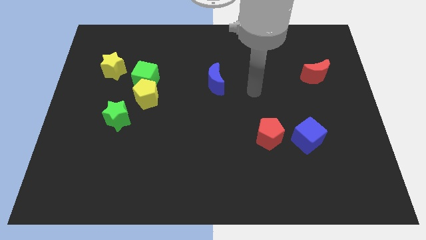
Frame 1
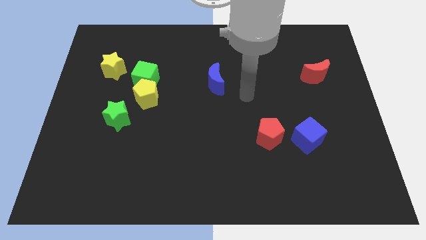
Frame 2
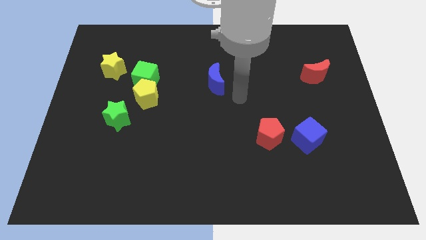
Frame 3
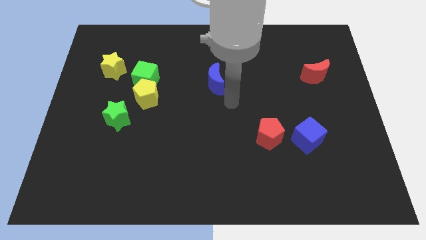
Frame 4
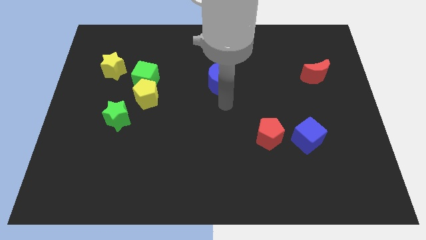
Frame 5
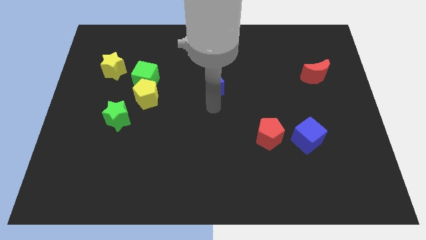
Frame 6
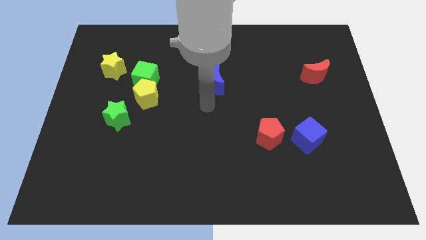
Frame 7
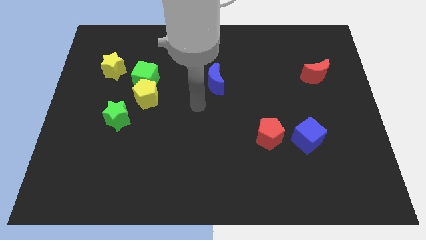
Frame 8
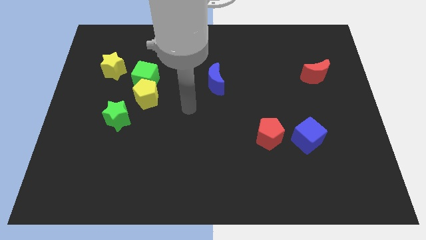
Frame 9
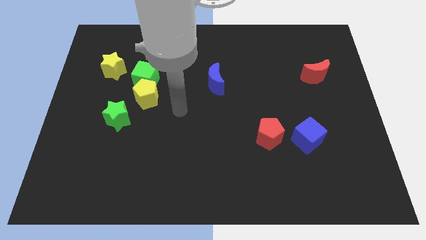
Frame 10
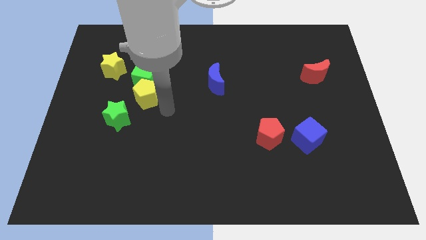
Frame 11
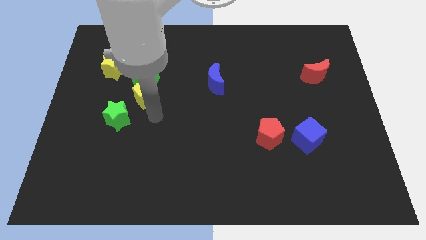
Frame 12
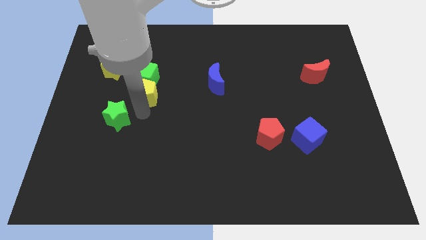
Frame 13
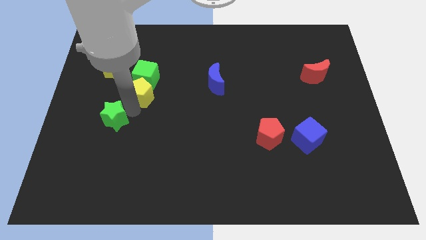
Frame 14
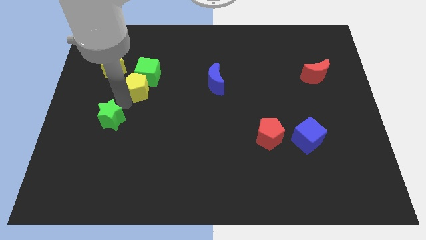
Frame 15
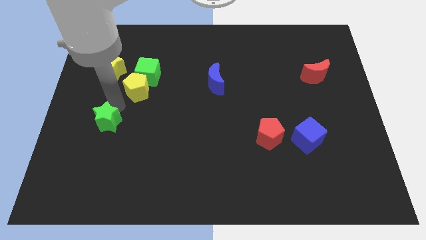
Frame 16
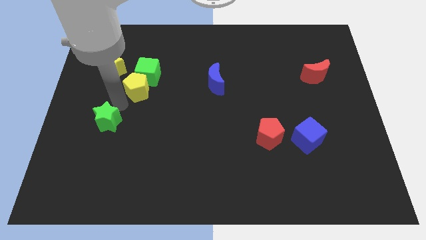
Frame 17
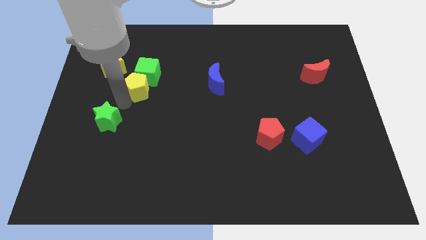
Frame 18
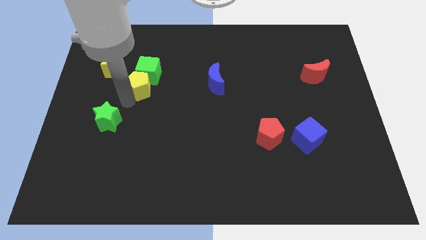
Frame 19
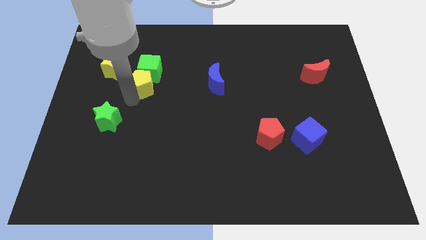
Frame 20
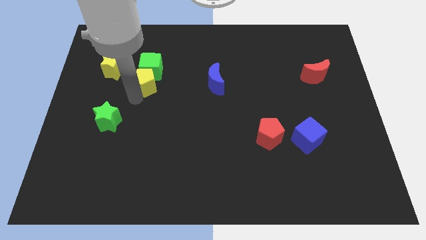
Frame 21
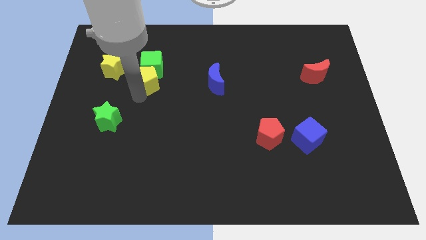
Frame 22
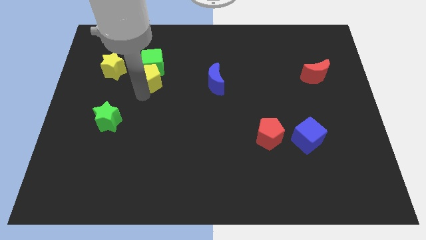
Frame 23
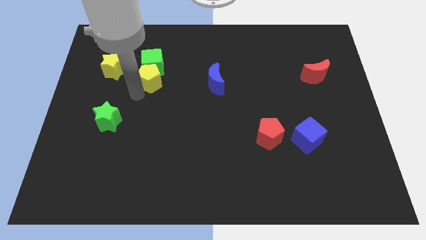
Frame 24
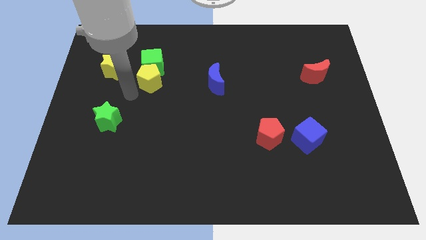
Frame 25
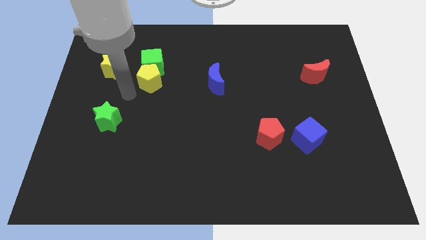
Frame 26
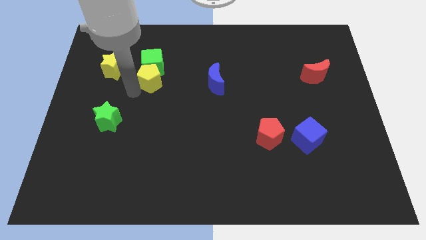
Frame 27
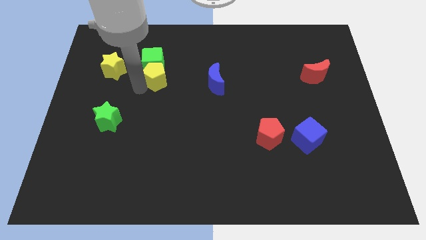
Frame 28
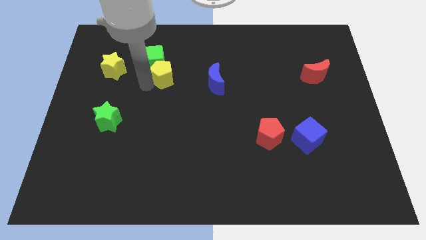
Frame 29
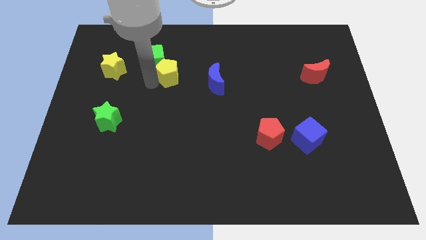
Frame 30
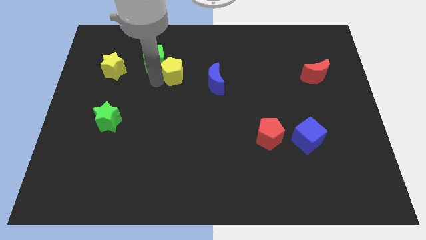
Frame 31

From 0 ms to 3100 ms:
separate the yellow pentagon from the green cube and green star

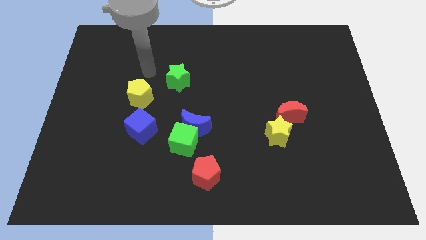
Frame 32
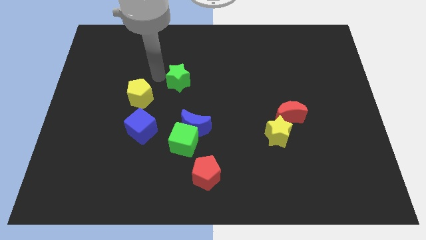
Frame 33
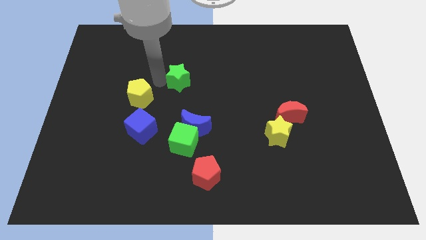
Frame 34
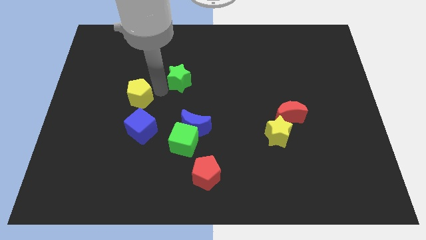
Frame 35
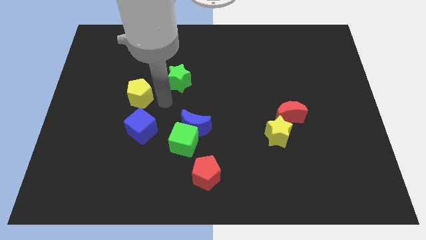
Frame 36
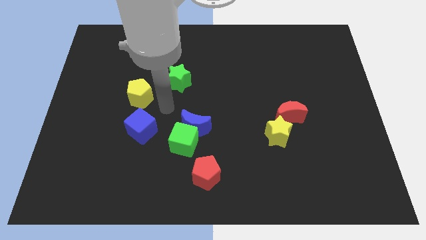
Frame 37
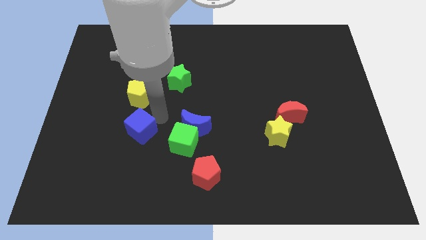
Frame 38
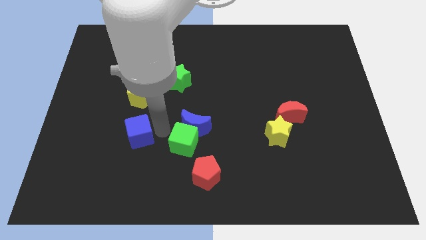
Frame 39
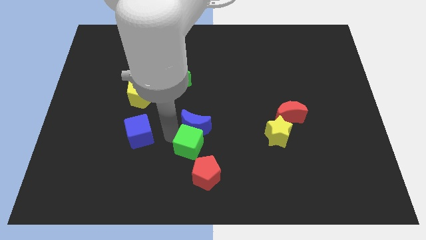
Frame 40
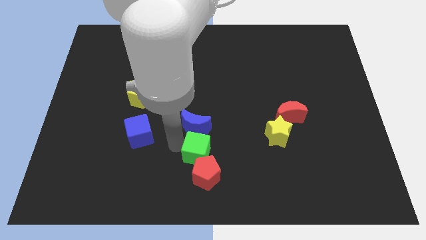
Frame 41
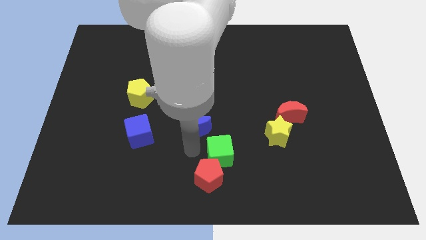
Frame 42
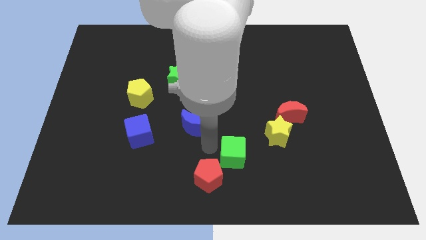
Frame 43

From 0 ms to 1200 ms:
move the blue moon away from the green cube

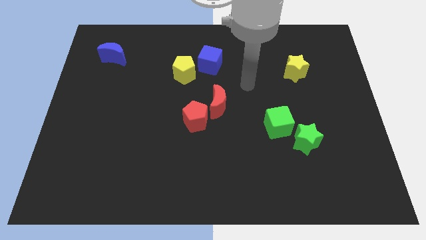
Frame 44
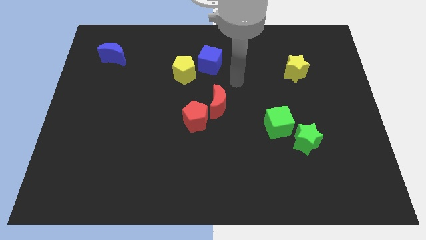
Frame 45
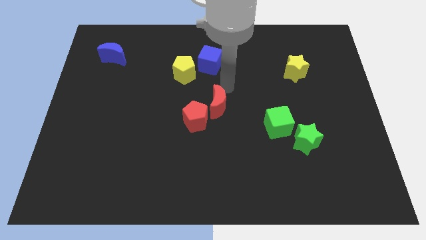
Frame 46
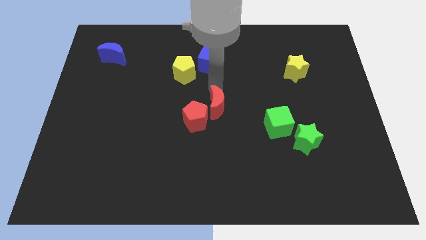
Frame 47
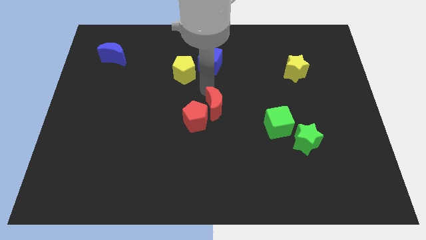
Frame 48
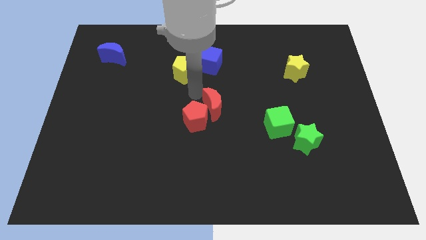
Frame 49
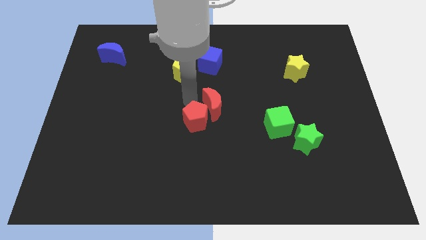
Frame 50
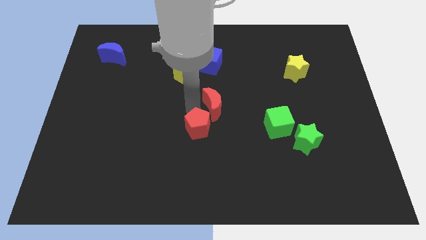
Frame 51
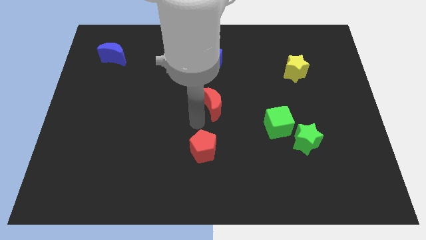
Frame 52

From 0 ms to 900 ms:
separate the red moon from the red pentagon

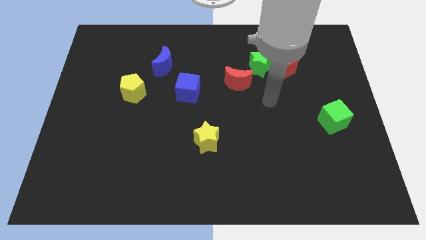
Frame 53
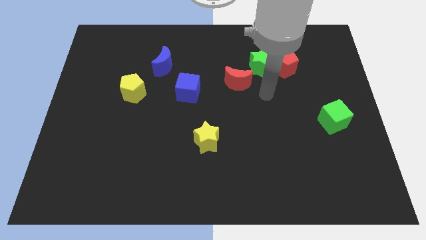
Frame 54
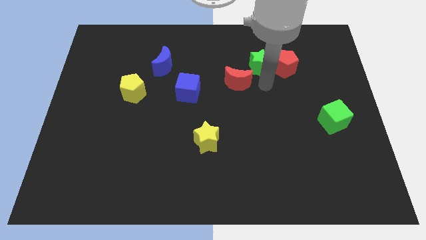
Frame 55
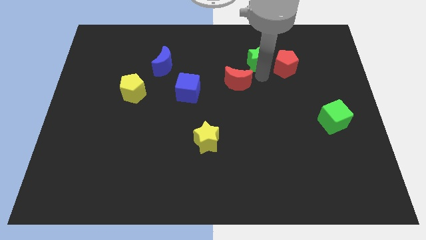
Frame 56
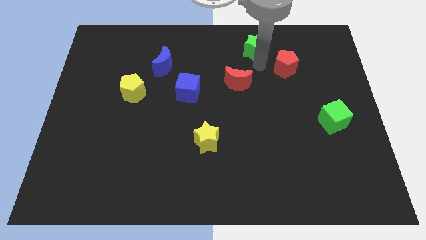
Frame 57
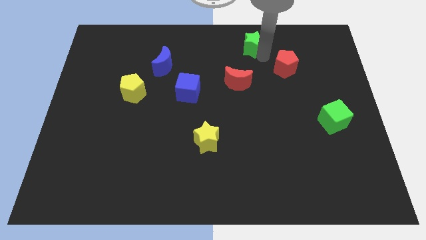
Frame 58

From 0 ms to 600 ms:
move the red pentagon away from the green star

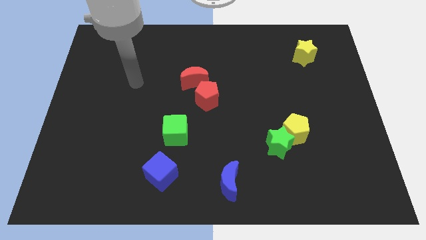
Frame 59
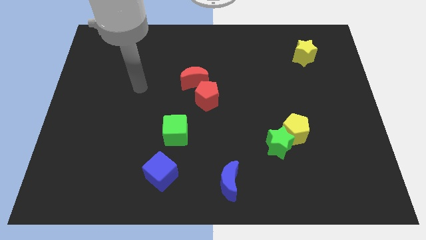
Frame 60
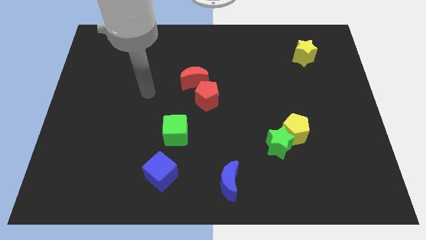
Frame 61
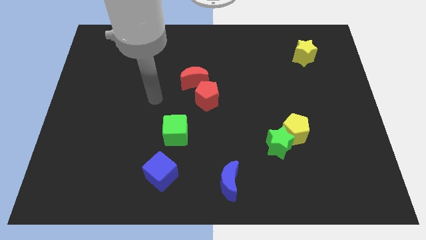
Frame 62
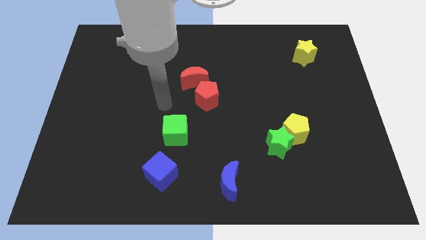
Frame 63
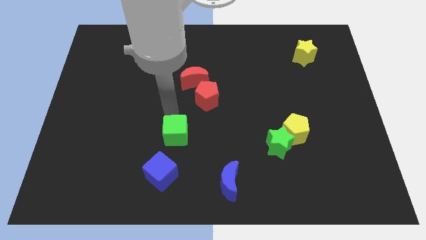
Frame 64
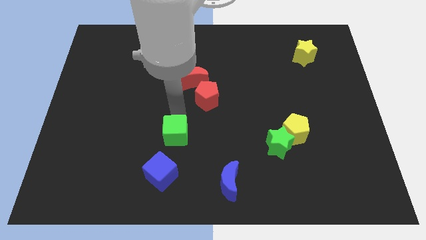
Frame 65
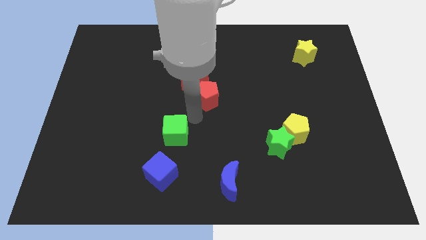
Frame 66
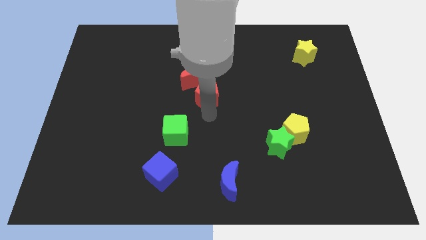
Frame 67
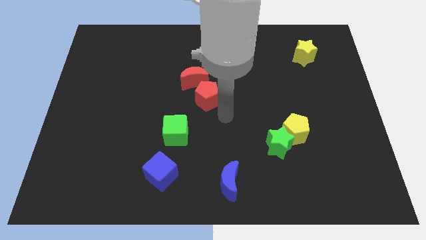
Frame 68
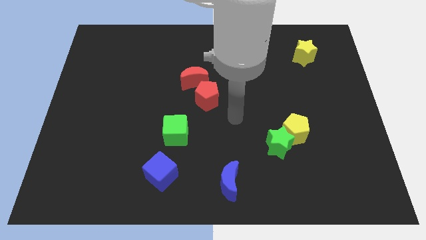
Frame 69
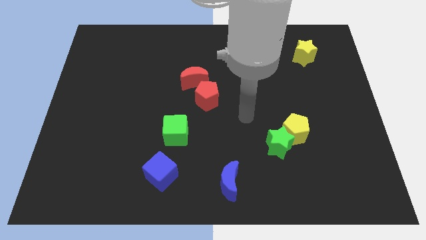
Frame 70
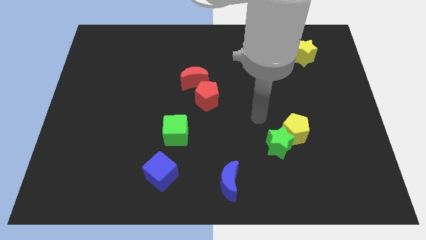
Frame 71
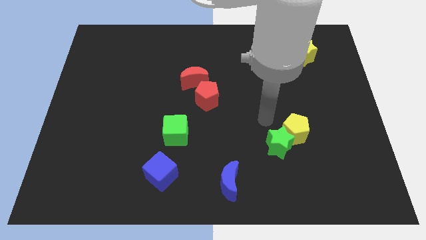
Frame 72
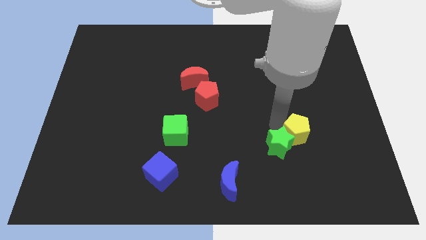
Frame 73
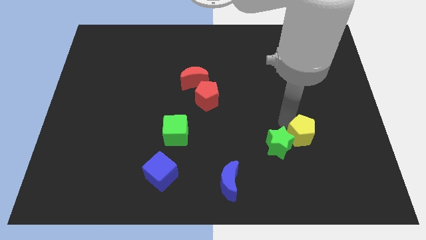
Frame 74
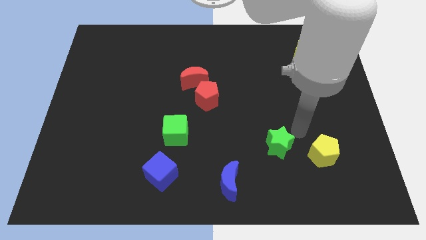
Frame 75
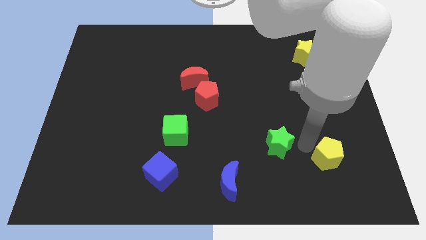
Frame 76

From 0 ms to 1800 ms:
move the green star away from the yellow pentagon

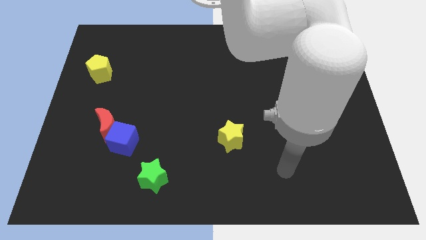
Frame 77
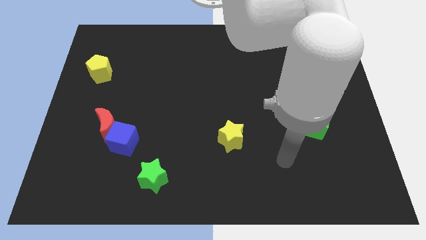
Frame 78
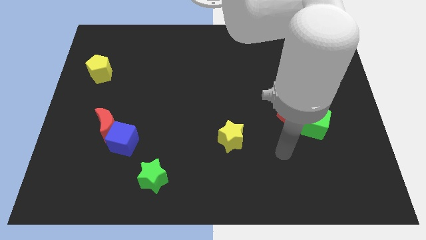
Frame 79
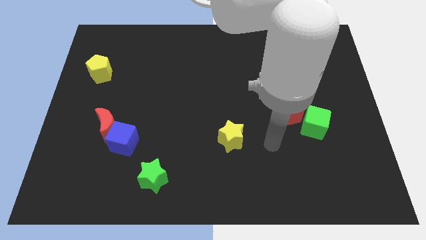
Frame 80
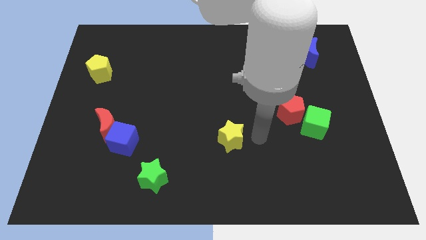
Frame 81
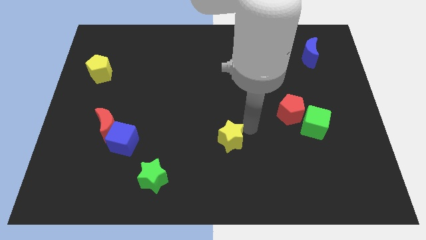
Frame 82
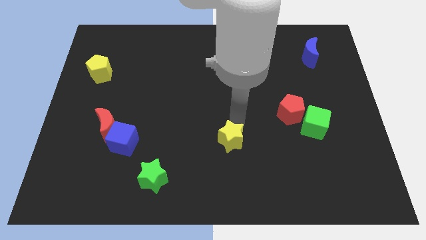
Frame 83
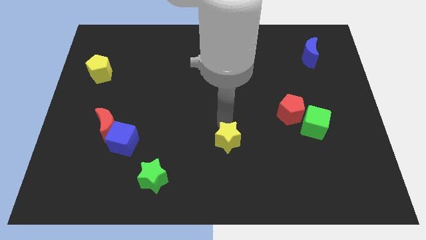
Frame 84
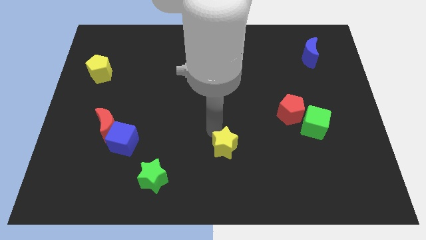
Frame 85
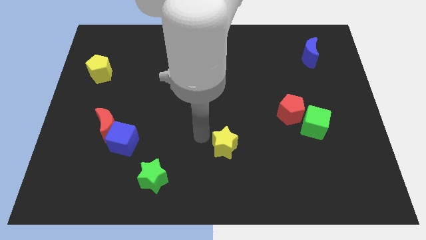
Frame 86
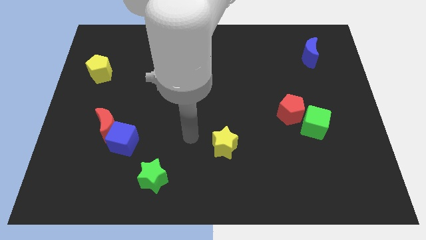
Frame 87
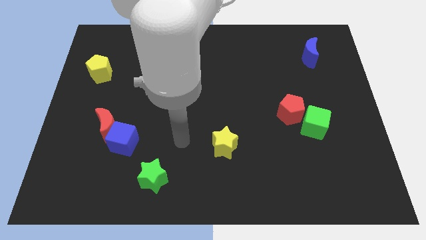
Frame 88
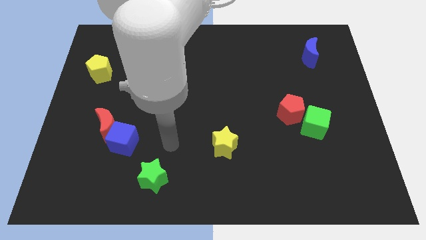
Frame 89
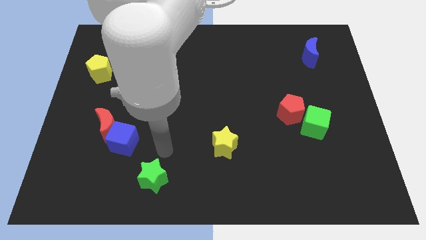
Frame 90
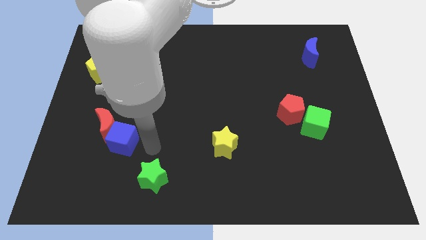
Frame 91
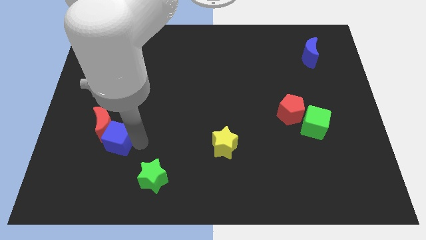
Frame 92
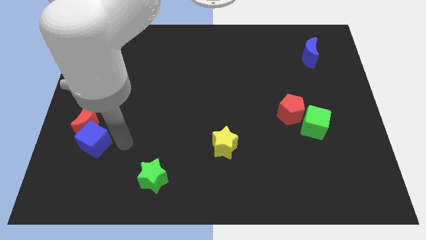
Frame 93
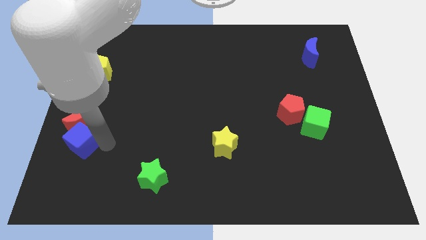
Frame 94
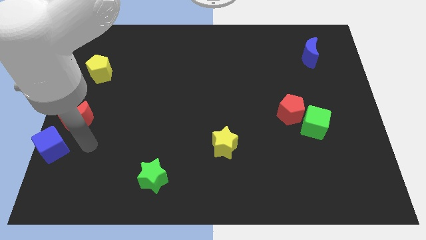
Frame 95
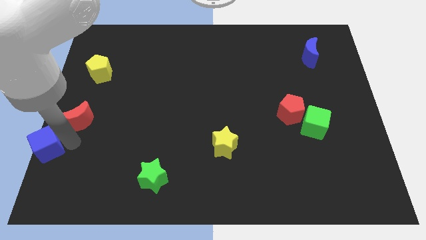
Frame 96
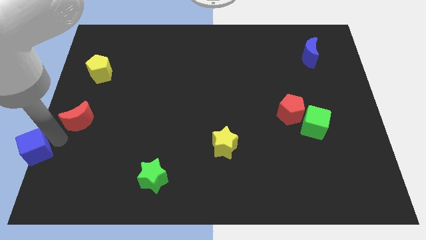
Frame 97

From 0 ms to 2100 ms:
pull the red moon apart from the blue cube
